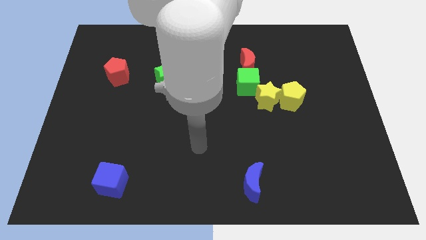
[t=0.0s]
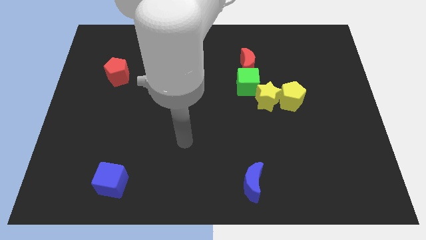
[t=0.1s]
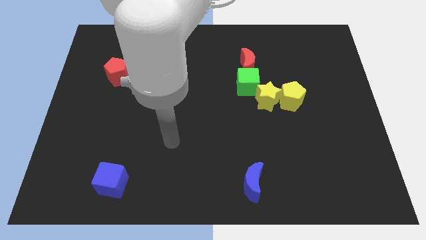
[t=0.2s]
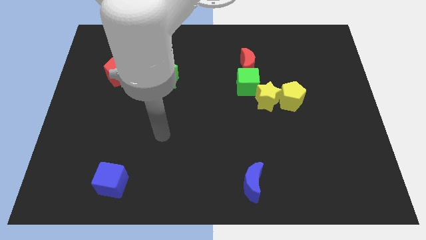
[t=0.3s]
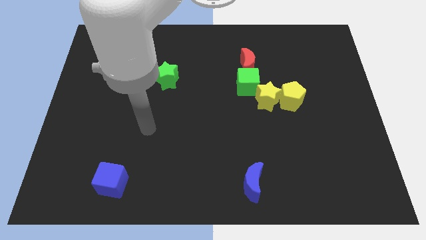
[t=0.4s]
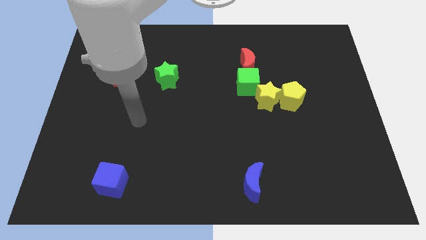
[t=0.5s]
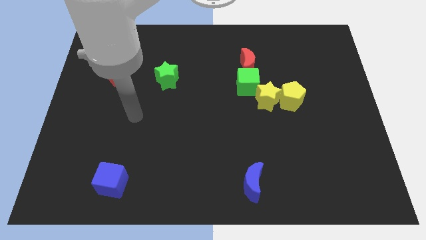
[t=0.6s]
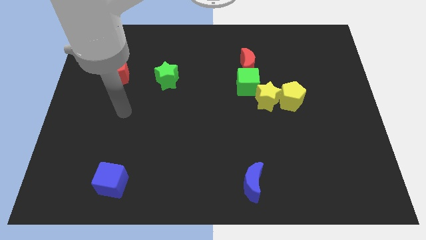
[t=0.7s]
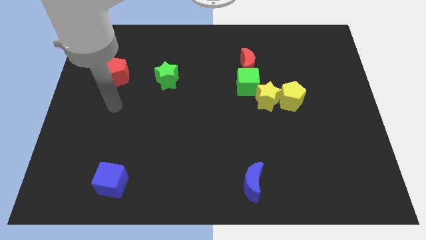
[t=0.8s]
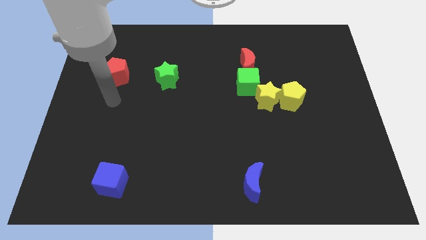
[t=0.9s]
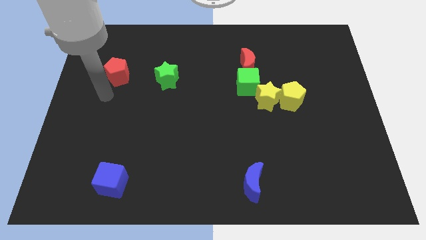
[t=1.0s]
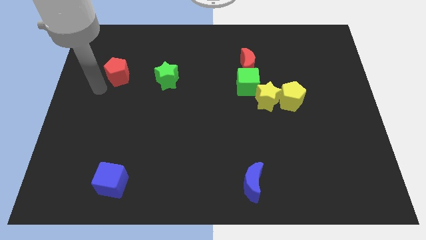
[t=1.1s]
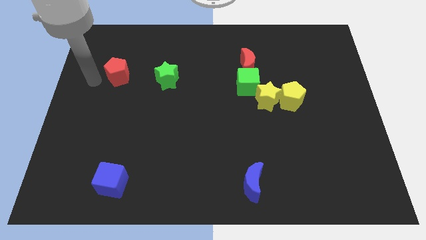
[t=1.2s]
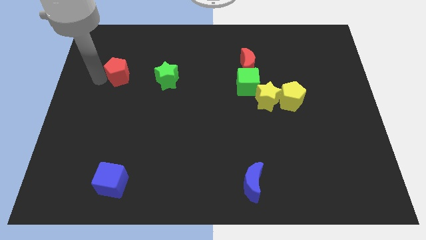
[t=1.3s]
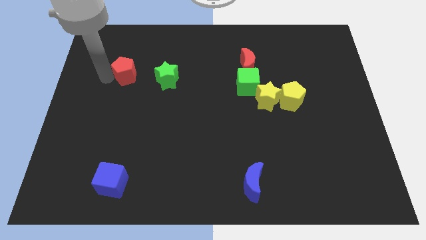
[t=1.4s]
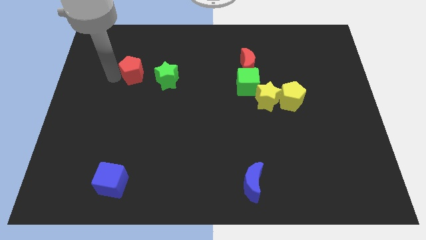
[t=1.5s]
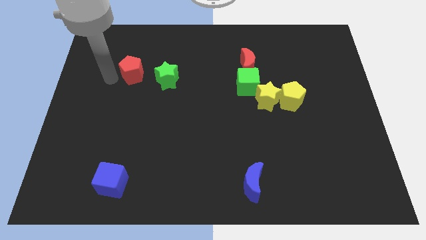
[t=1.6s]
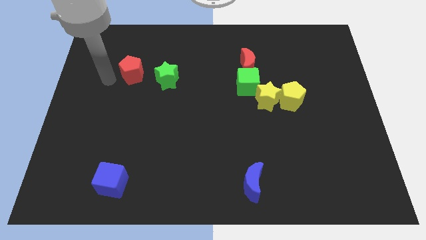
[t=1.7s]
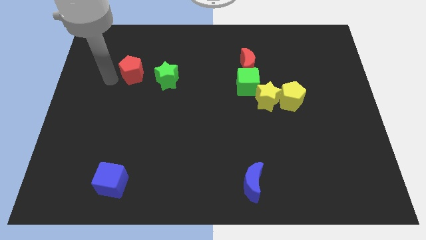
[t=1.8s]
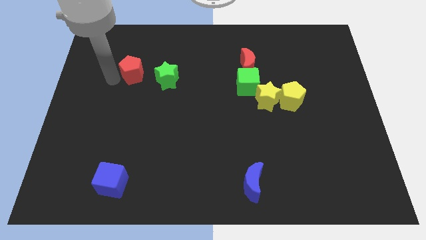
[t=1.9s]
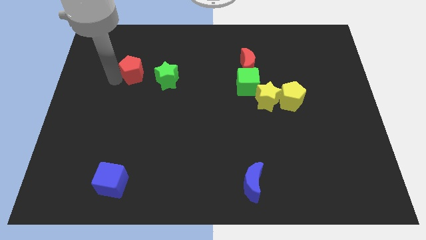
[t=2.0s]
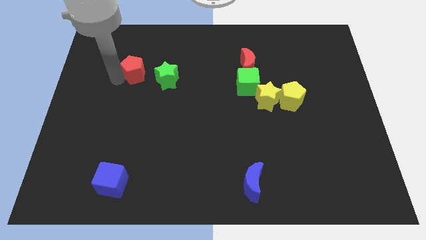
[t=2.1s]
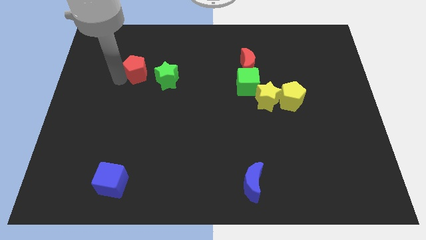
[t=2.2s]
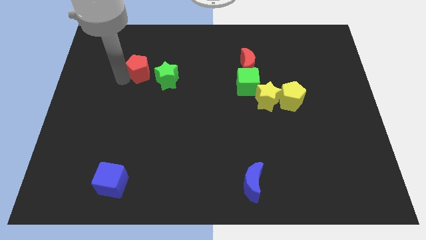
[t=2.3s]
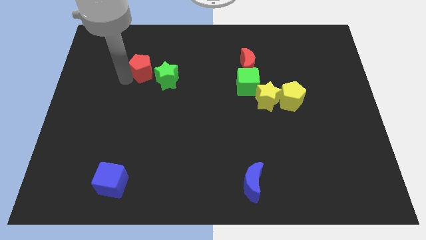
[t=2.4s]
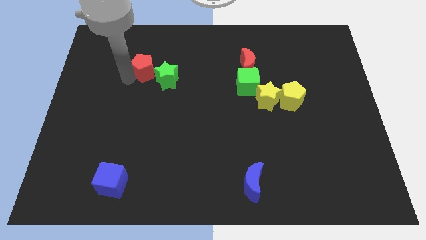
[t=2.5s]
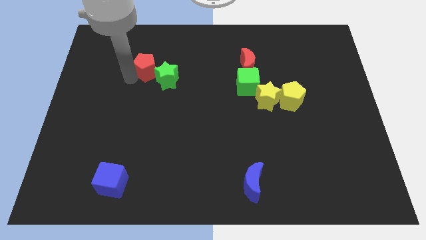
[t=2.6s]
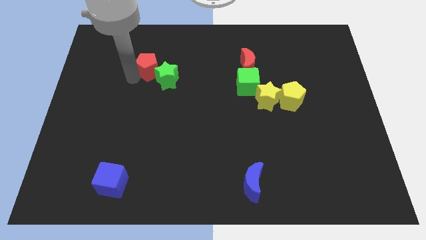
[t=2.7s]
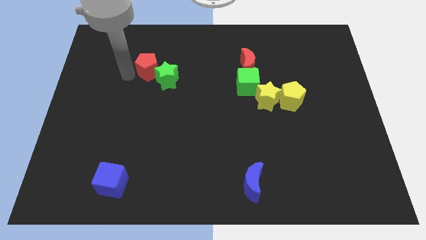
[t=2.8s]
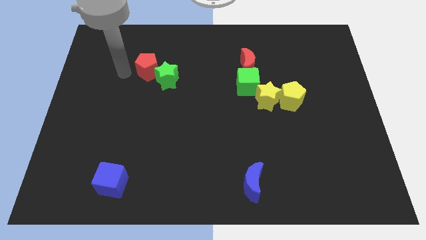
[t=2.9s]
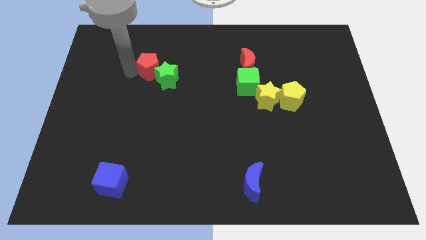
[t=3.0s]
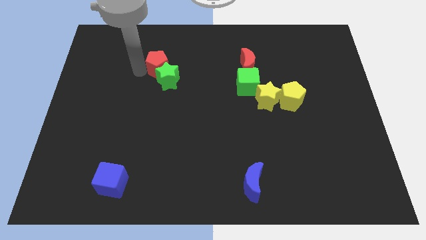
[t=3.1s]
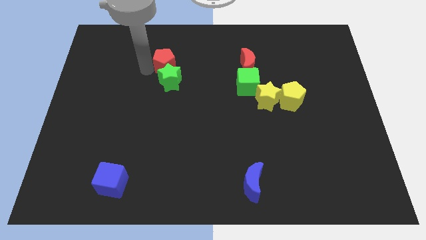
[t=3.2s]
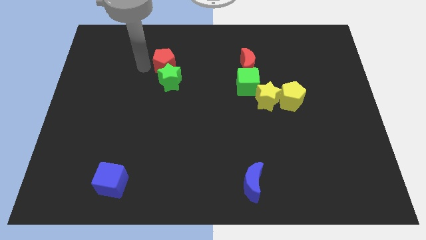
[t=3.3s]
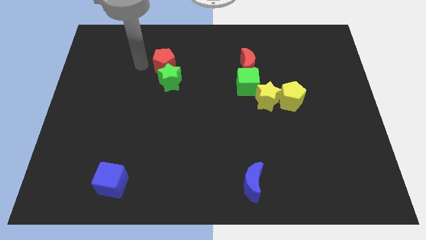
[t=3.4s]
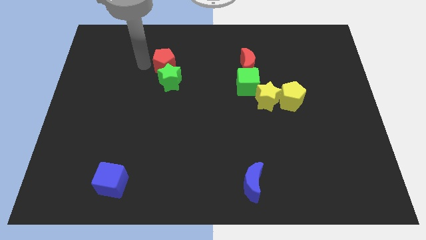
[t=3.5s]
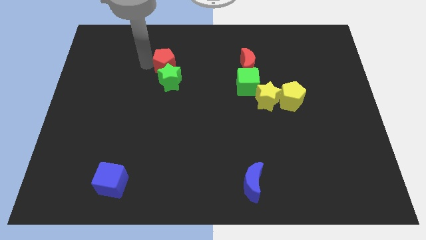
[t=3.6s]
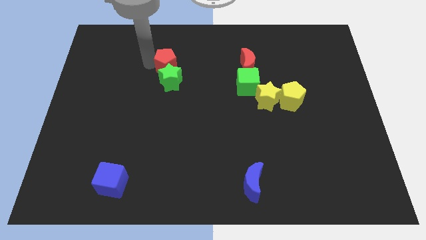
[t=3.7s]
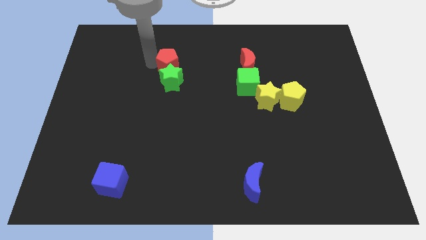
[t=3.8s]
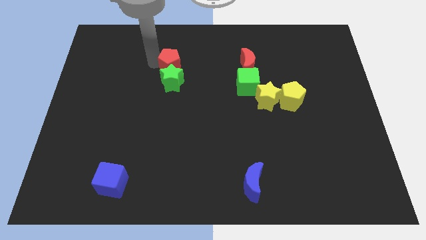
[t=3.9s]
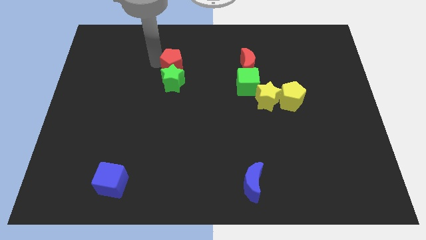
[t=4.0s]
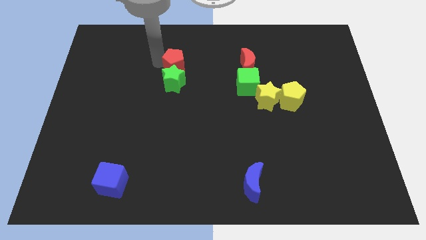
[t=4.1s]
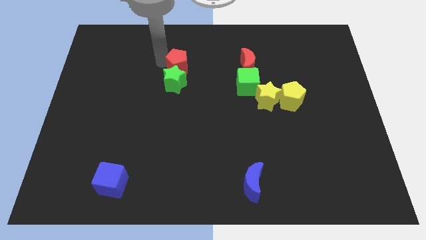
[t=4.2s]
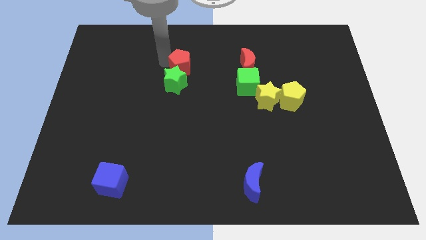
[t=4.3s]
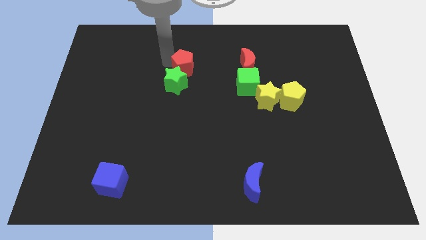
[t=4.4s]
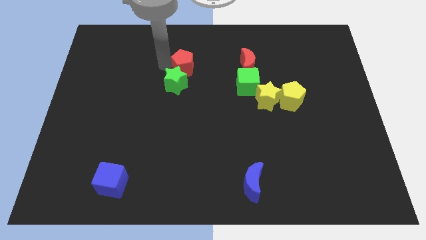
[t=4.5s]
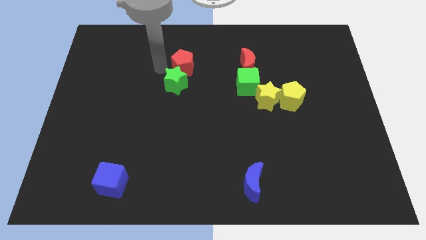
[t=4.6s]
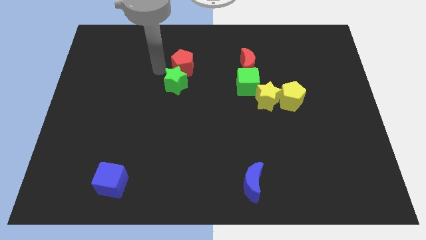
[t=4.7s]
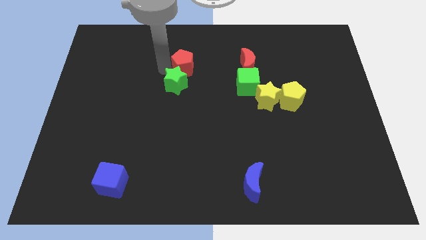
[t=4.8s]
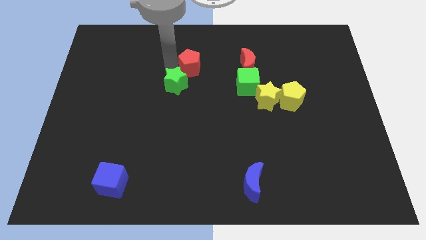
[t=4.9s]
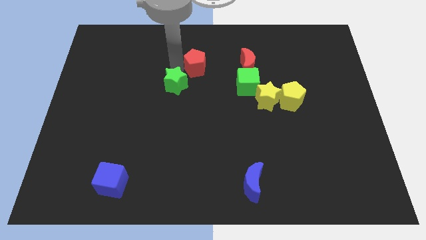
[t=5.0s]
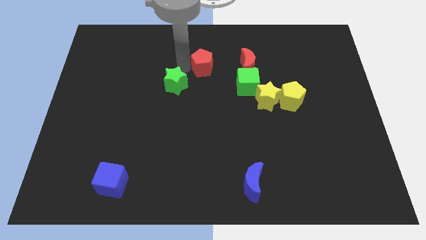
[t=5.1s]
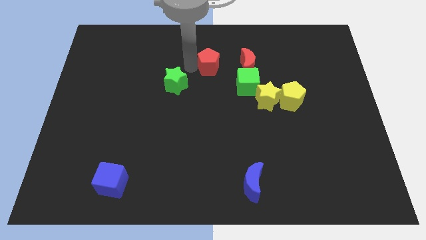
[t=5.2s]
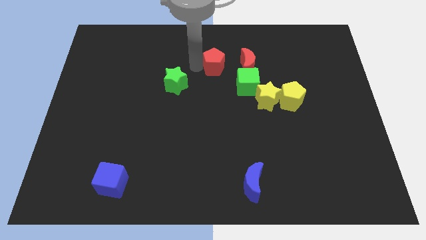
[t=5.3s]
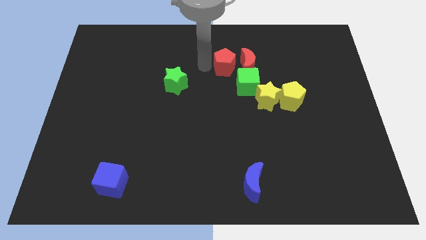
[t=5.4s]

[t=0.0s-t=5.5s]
put the red pentagon close to the red moon

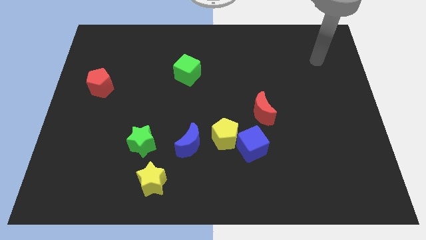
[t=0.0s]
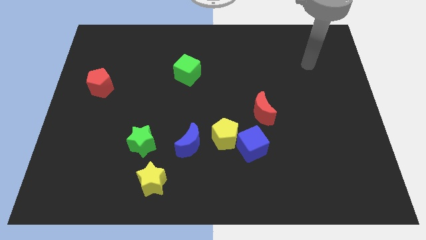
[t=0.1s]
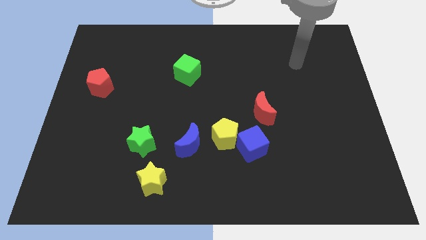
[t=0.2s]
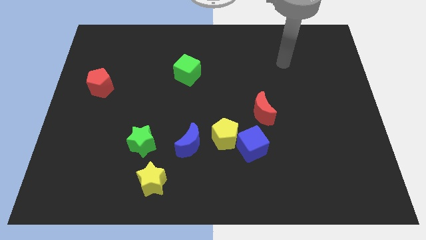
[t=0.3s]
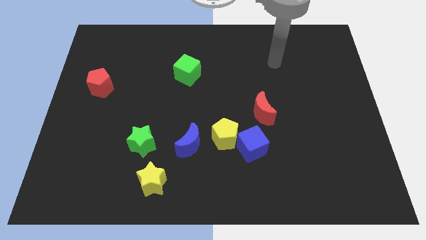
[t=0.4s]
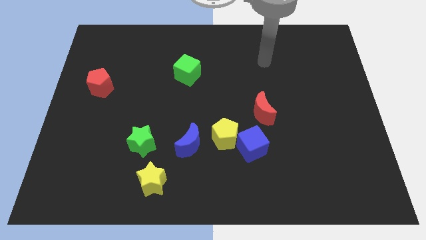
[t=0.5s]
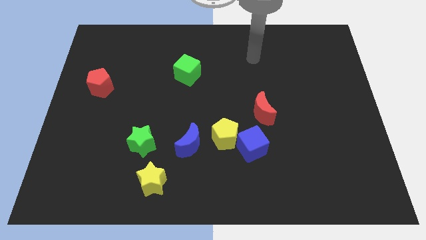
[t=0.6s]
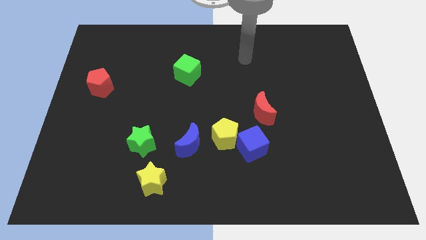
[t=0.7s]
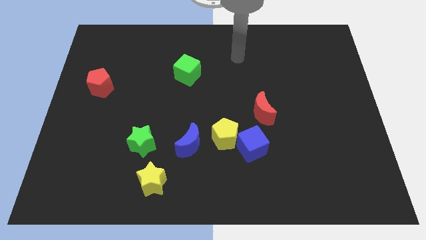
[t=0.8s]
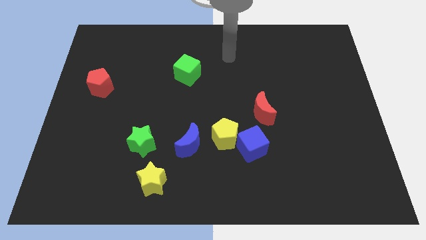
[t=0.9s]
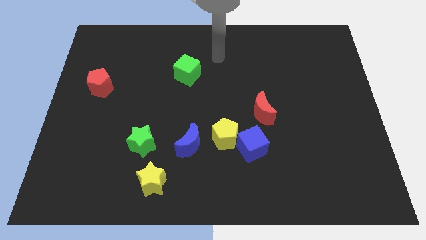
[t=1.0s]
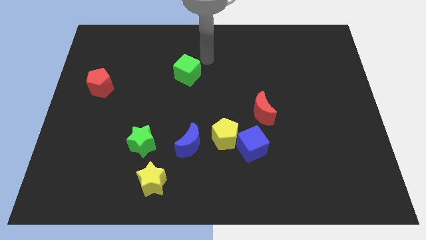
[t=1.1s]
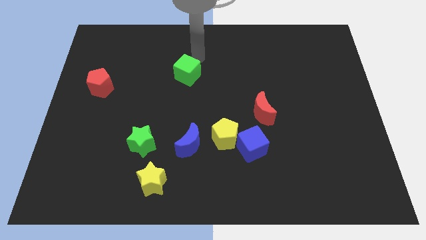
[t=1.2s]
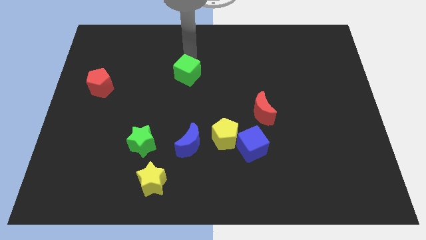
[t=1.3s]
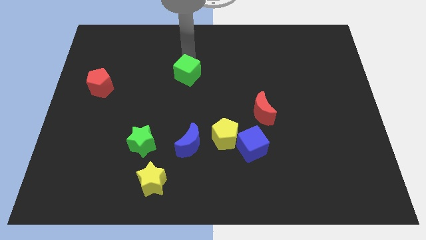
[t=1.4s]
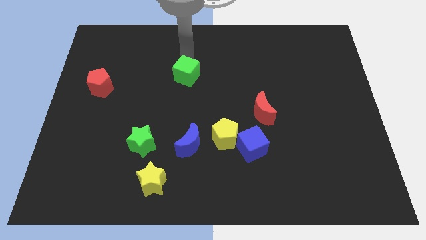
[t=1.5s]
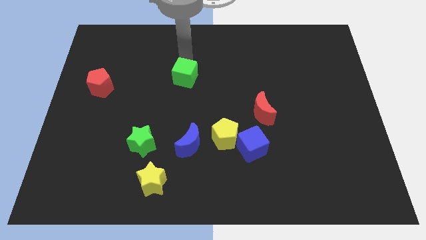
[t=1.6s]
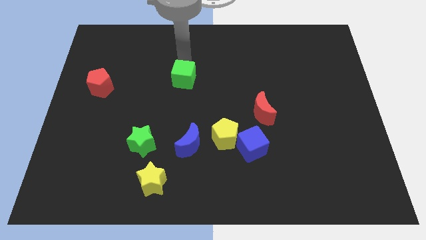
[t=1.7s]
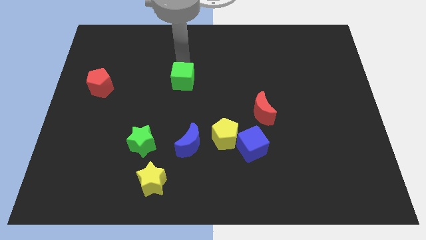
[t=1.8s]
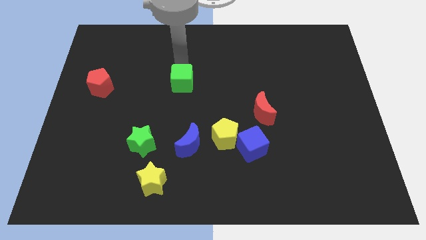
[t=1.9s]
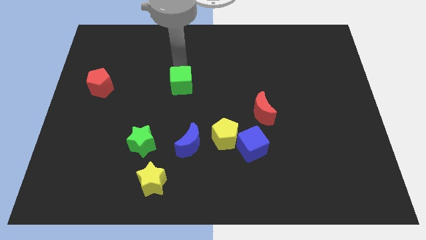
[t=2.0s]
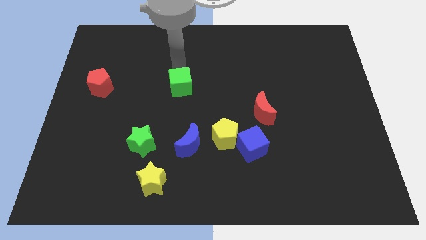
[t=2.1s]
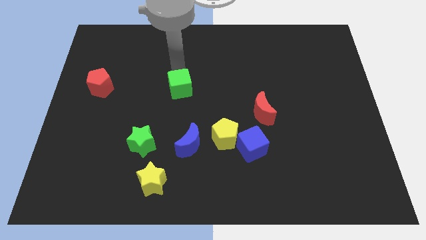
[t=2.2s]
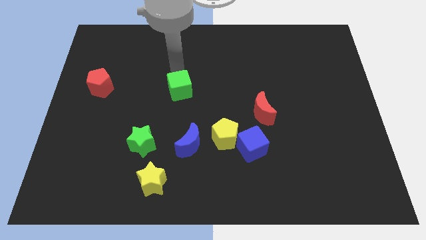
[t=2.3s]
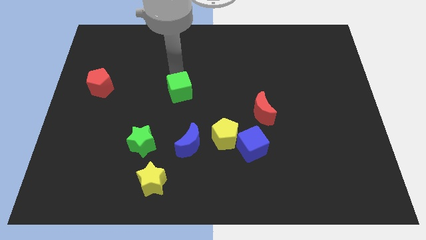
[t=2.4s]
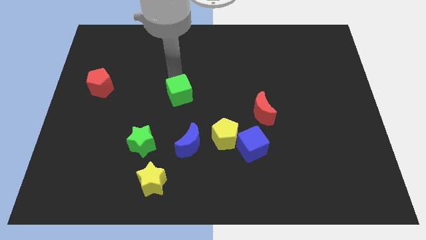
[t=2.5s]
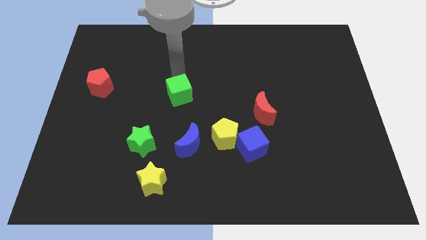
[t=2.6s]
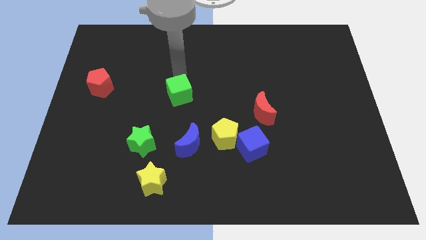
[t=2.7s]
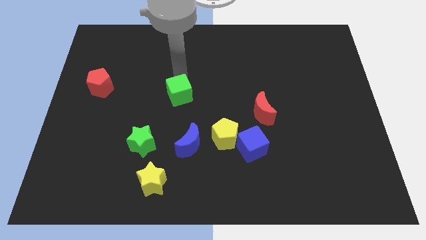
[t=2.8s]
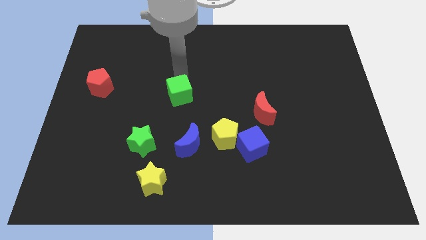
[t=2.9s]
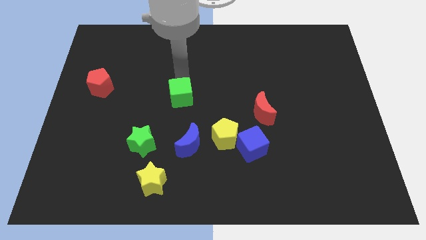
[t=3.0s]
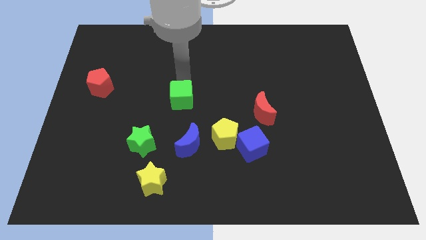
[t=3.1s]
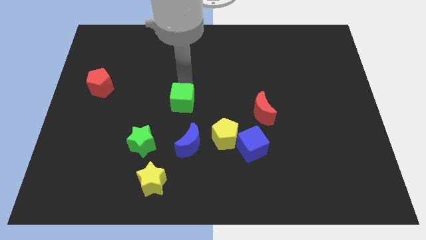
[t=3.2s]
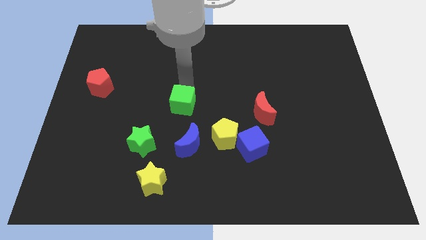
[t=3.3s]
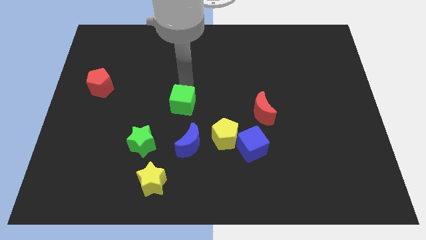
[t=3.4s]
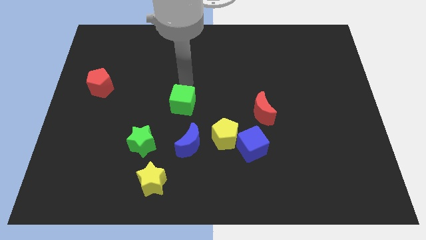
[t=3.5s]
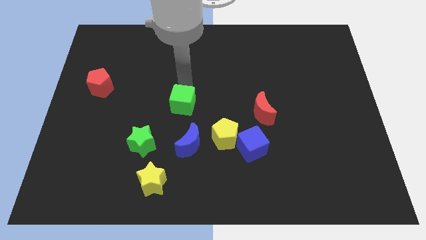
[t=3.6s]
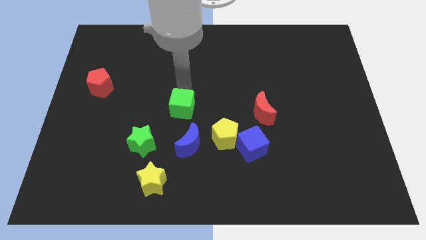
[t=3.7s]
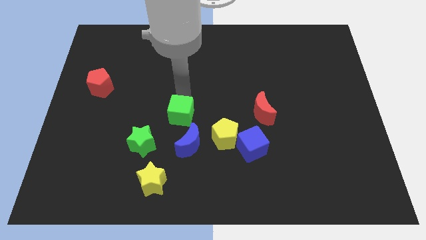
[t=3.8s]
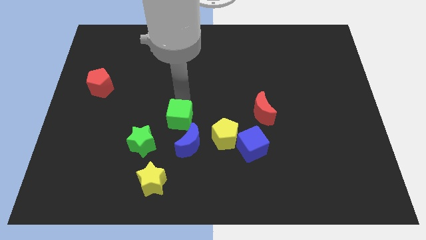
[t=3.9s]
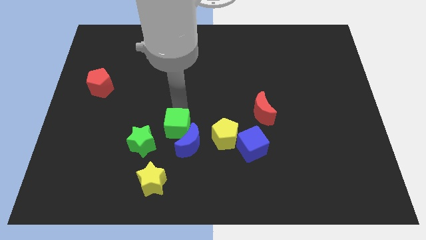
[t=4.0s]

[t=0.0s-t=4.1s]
put the green cube next to the blue moon
